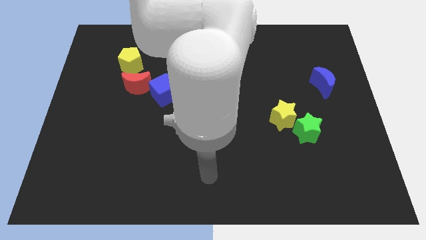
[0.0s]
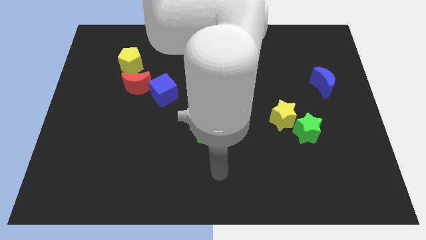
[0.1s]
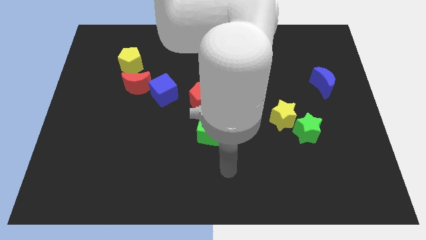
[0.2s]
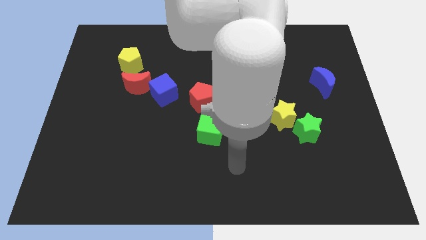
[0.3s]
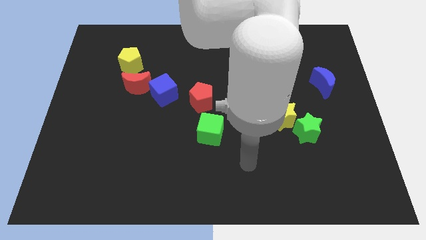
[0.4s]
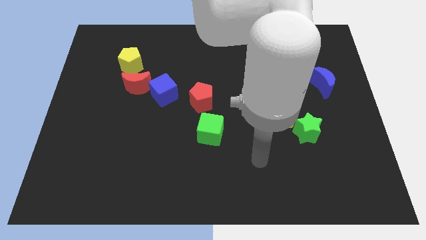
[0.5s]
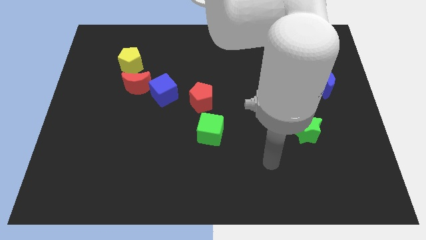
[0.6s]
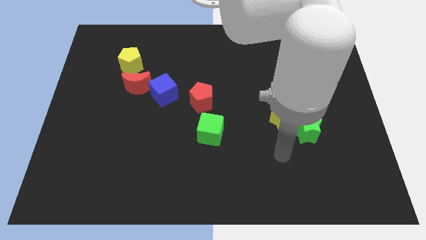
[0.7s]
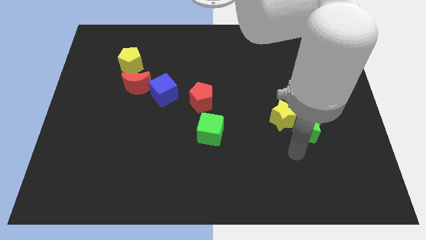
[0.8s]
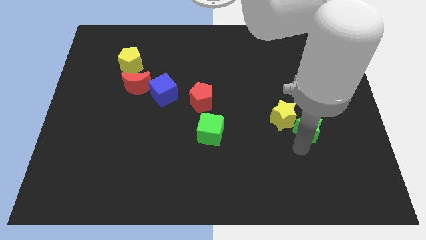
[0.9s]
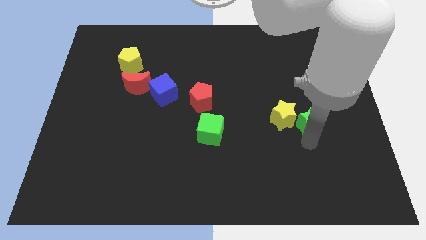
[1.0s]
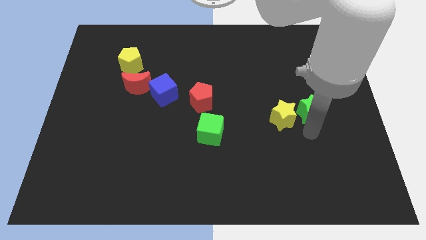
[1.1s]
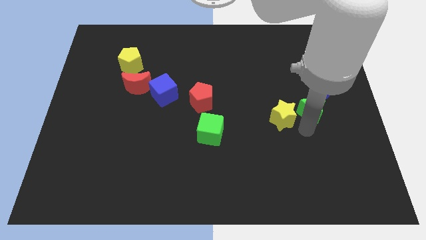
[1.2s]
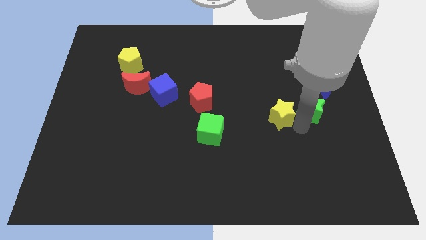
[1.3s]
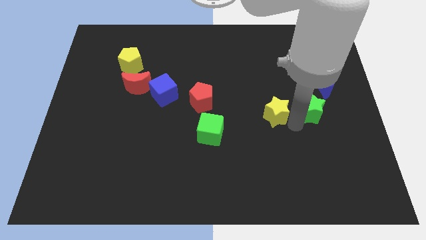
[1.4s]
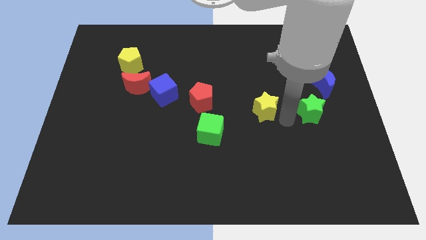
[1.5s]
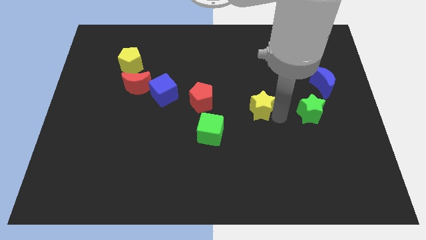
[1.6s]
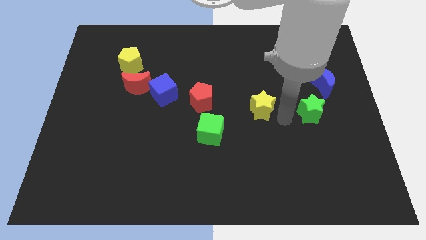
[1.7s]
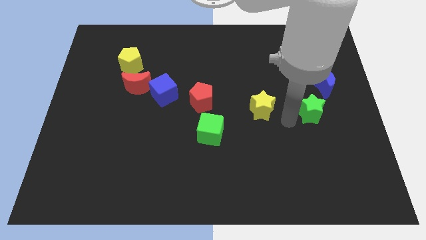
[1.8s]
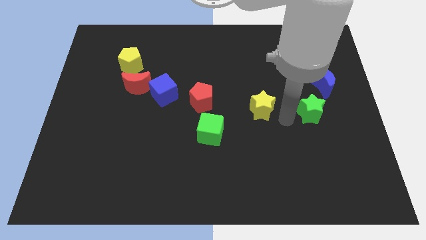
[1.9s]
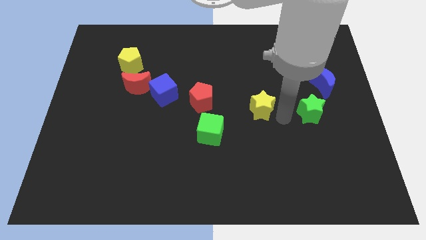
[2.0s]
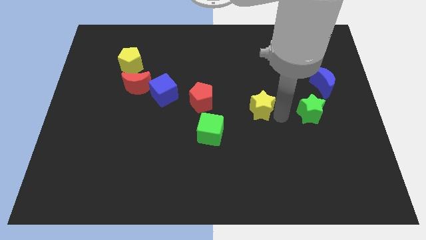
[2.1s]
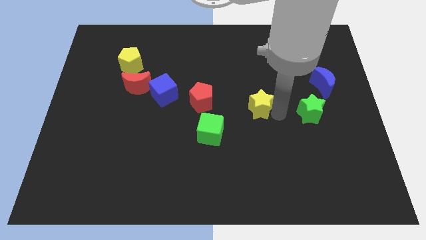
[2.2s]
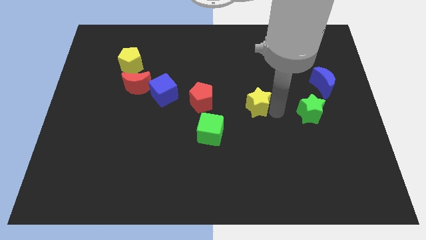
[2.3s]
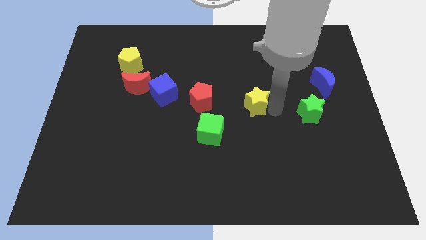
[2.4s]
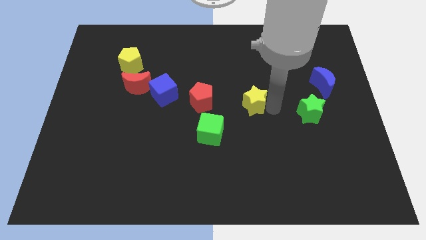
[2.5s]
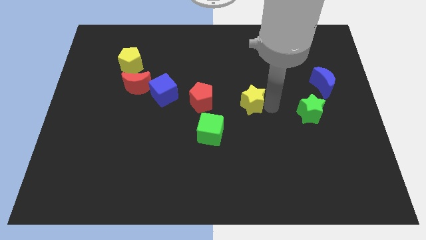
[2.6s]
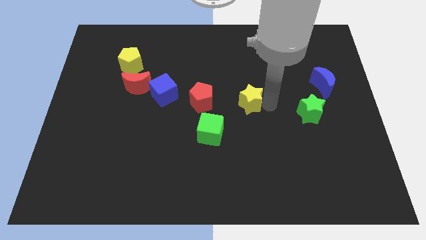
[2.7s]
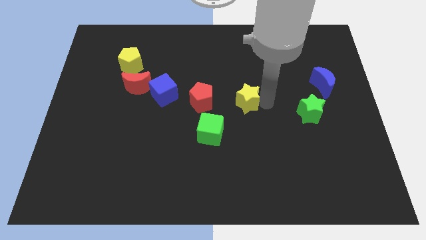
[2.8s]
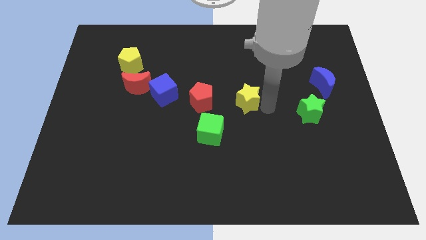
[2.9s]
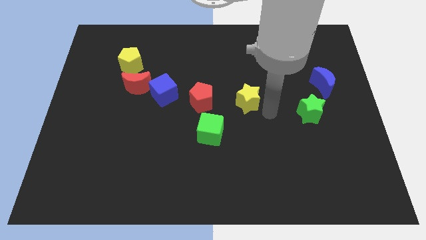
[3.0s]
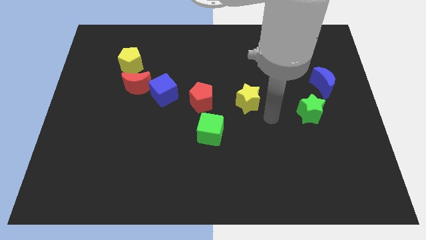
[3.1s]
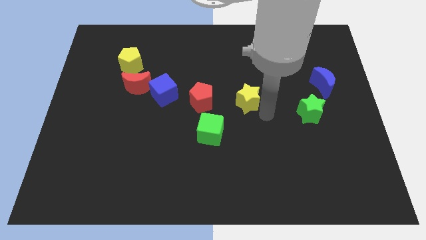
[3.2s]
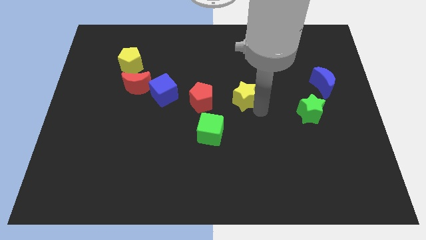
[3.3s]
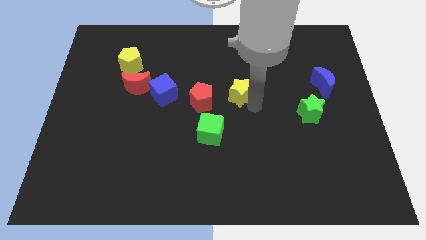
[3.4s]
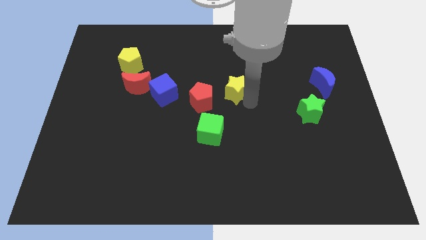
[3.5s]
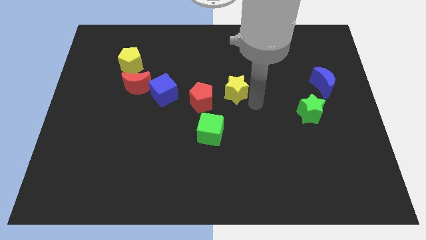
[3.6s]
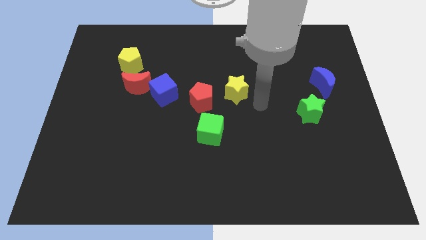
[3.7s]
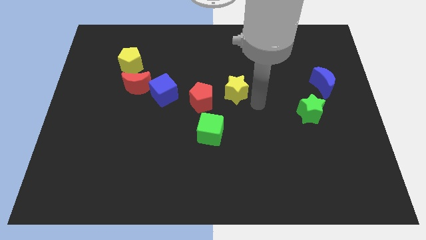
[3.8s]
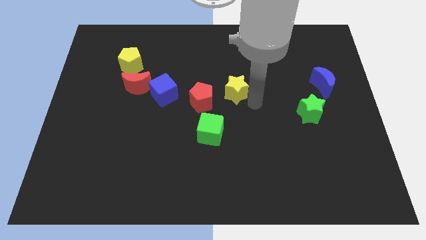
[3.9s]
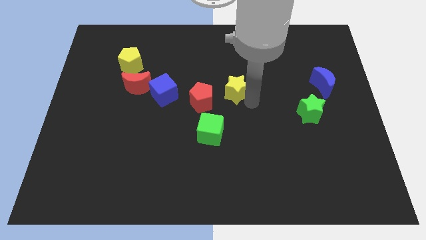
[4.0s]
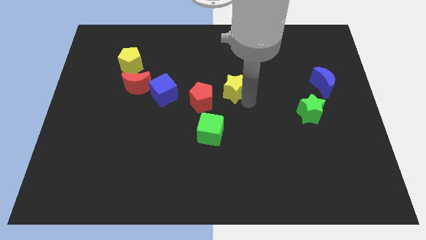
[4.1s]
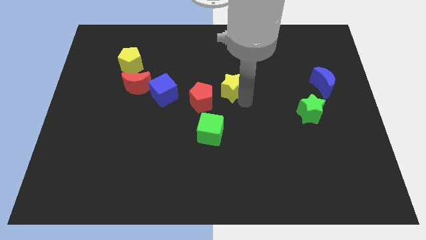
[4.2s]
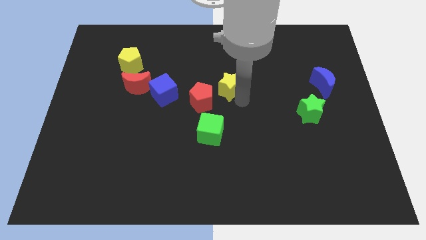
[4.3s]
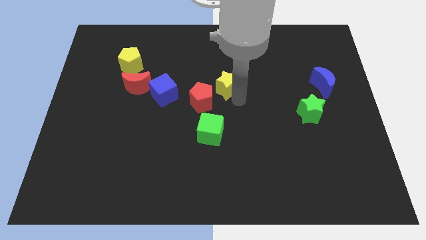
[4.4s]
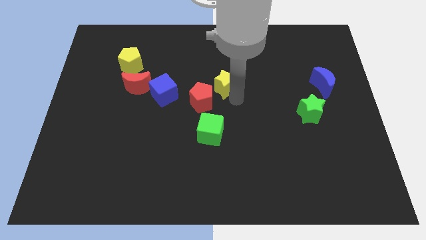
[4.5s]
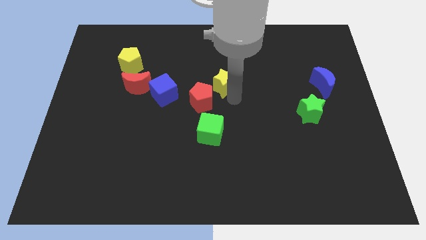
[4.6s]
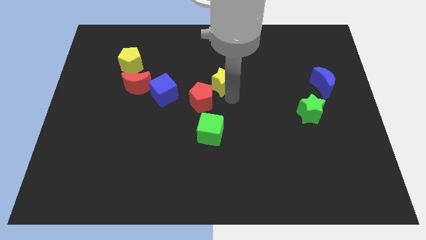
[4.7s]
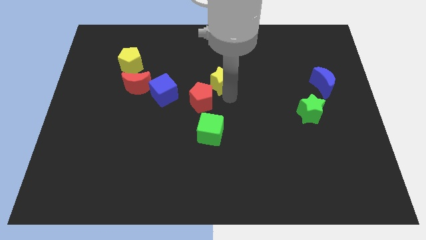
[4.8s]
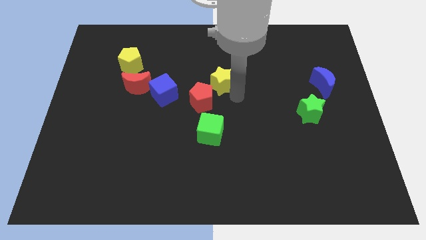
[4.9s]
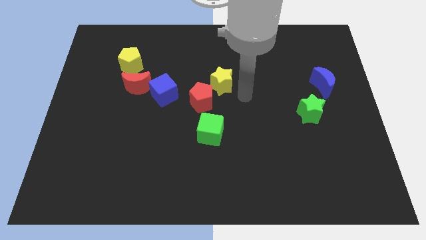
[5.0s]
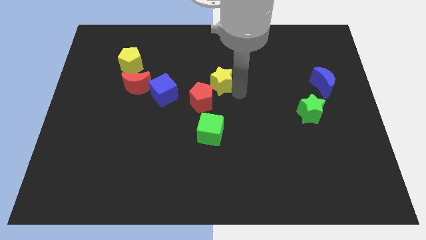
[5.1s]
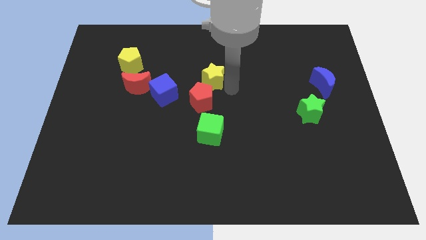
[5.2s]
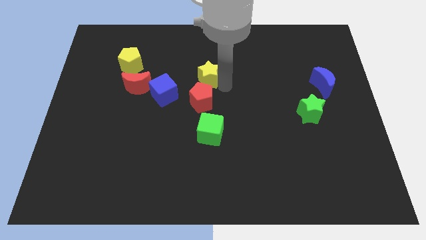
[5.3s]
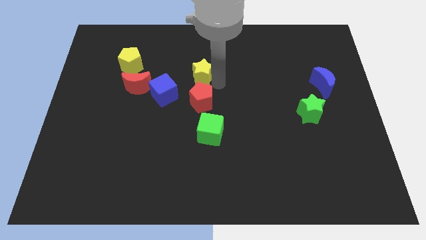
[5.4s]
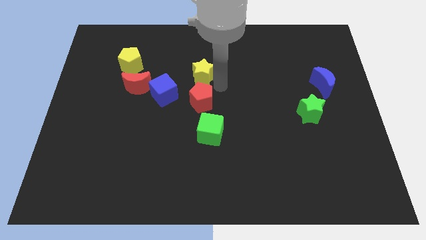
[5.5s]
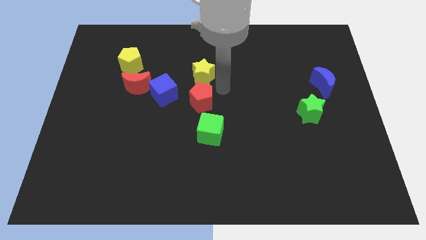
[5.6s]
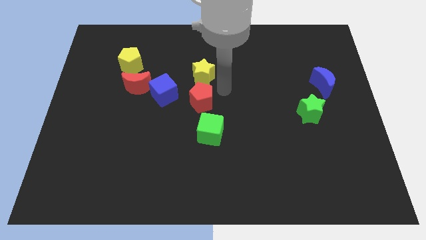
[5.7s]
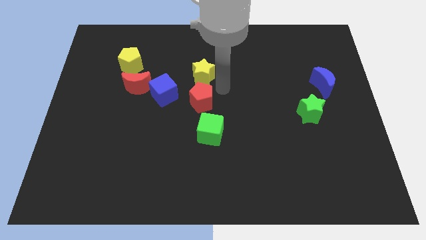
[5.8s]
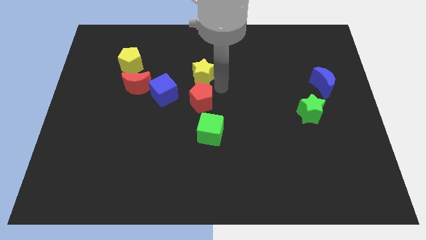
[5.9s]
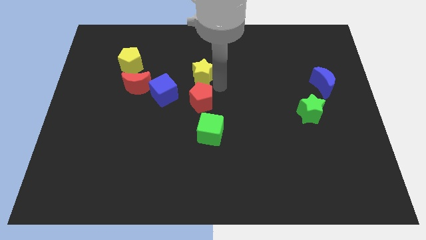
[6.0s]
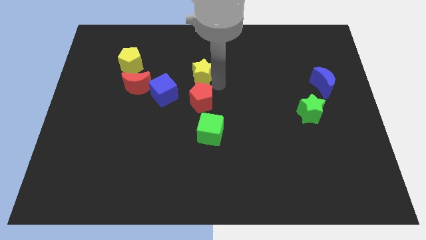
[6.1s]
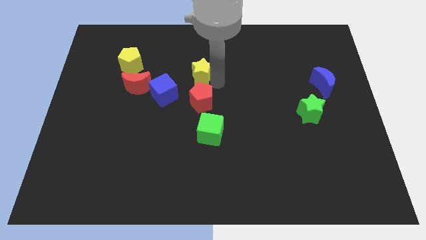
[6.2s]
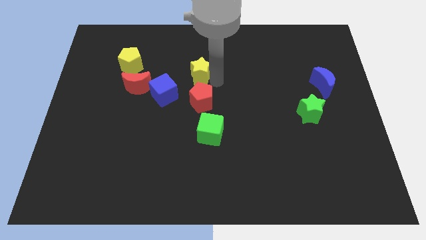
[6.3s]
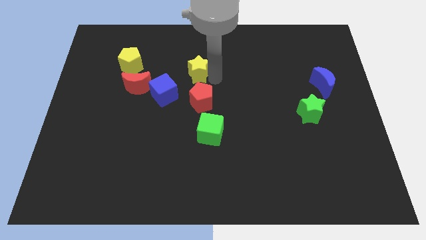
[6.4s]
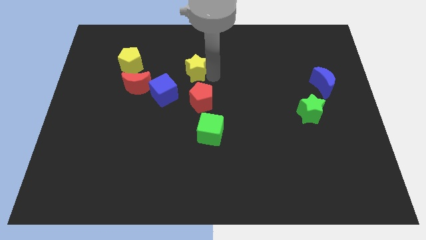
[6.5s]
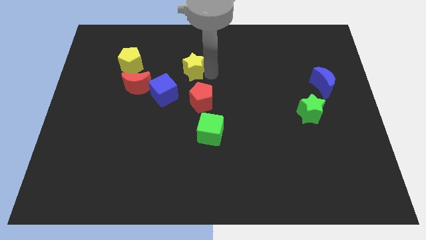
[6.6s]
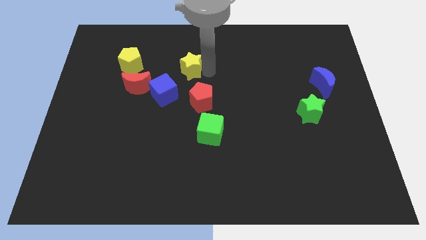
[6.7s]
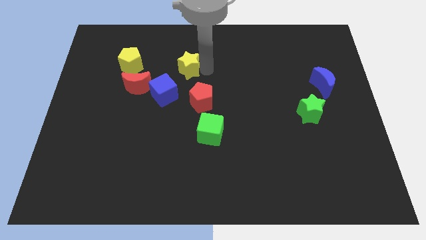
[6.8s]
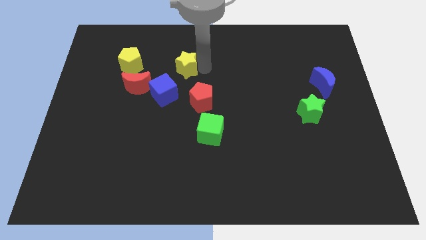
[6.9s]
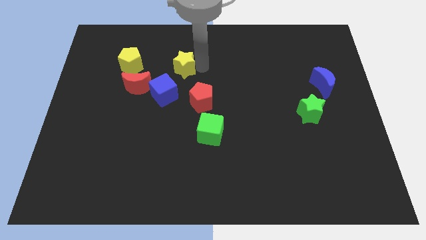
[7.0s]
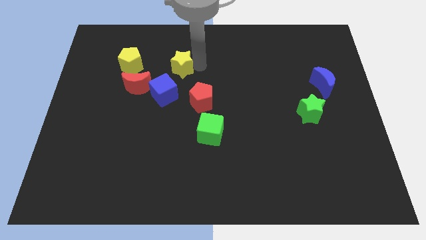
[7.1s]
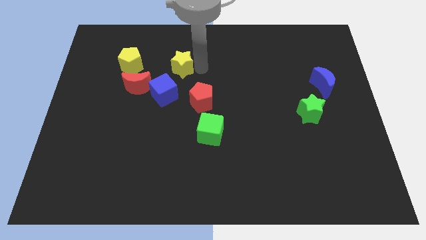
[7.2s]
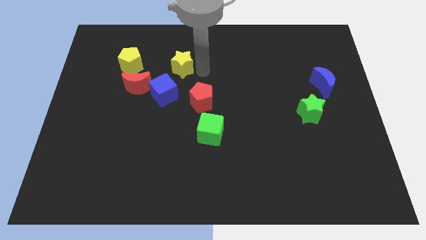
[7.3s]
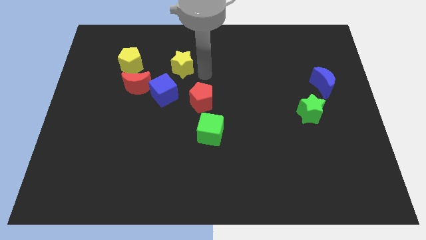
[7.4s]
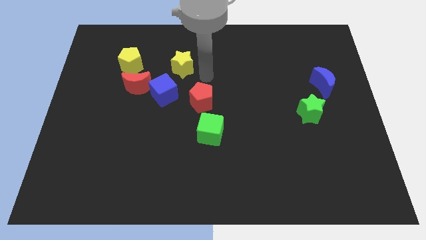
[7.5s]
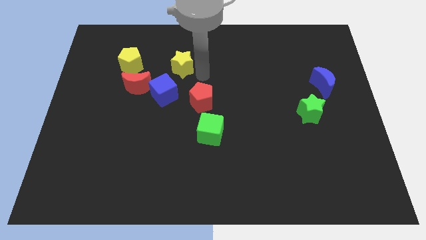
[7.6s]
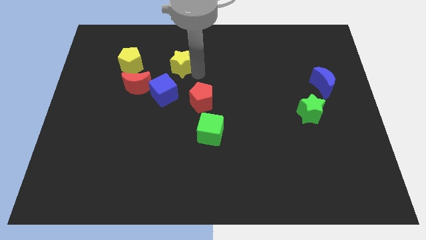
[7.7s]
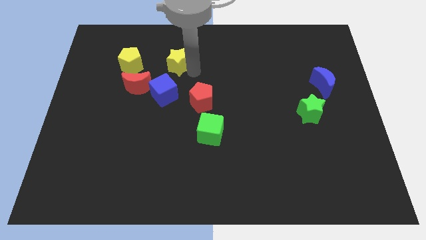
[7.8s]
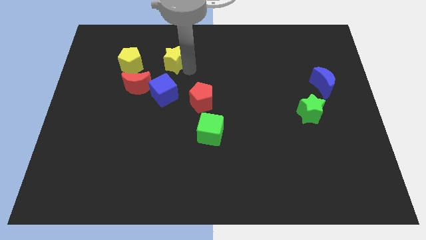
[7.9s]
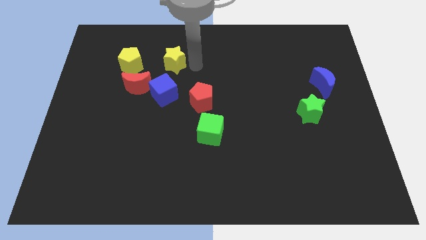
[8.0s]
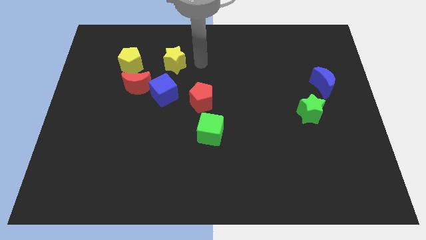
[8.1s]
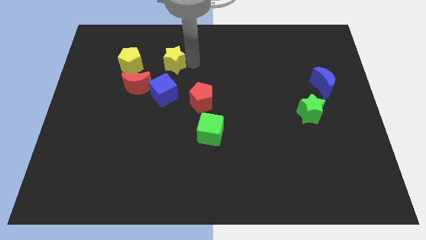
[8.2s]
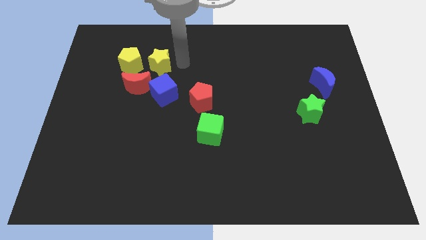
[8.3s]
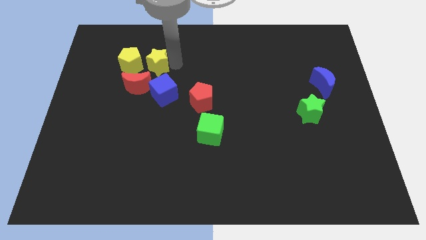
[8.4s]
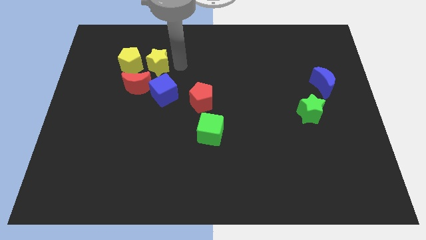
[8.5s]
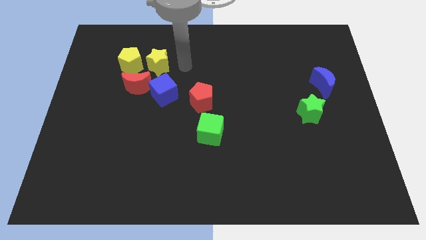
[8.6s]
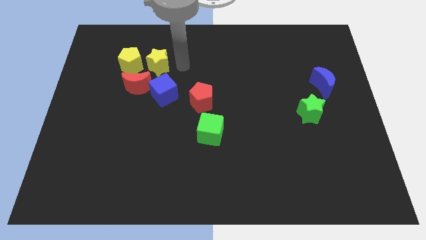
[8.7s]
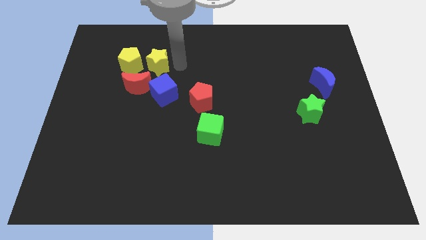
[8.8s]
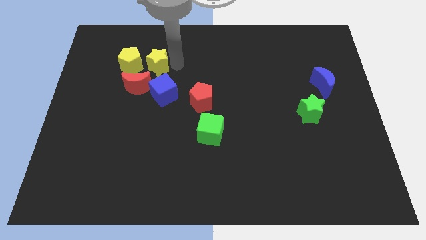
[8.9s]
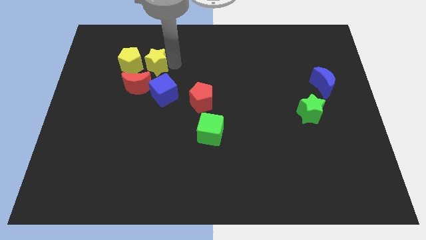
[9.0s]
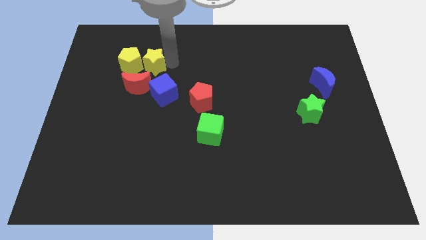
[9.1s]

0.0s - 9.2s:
push the yellow star close to the yellow pentagon
